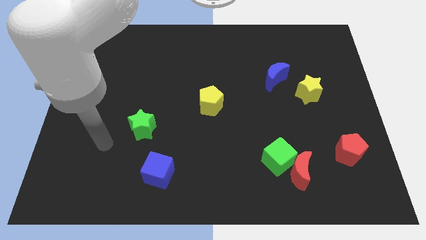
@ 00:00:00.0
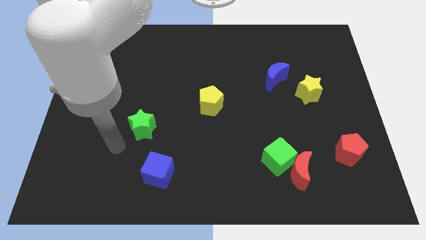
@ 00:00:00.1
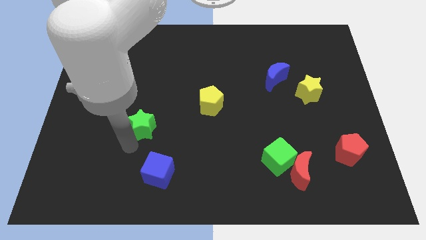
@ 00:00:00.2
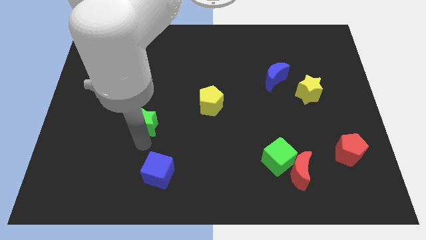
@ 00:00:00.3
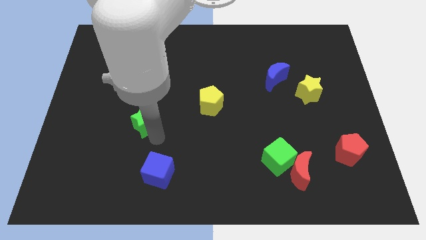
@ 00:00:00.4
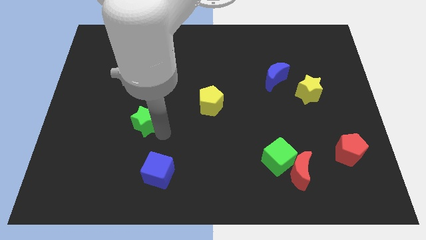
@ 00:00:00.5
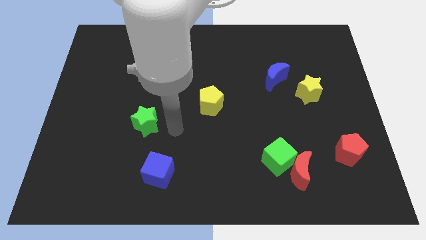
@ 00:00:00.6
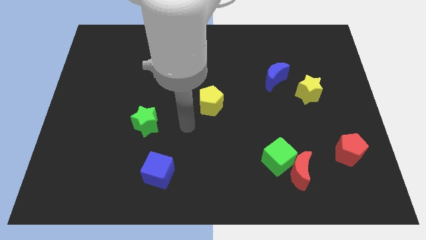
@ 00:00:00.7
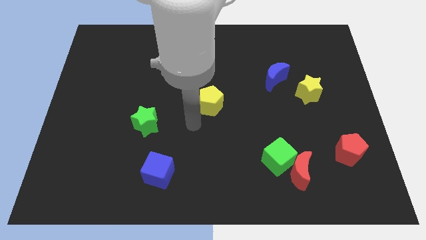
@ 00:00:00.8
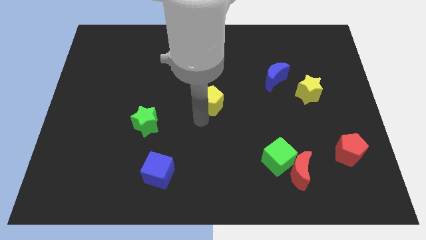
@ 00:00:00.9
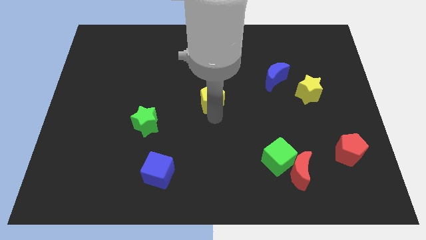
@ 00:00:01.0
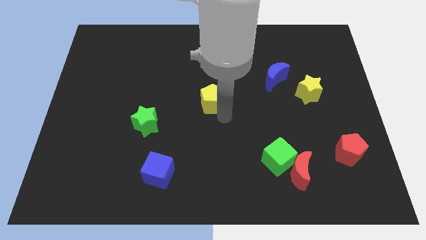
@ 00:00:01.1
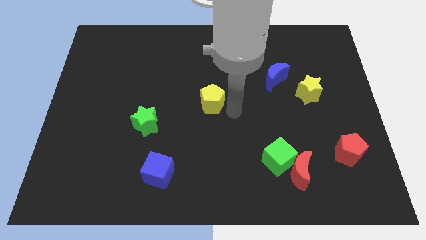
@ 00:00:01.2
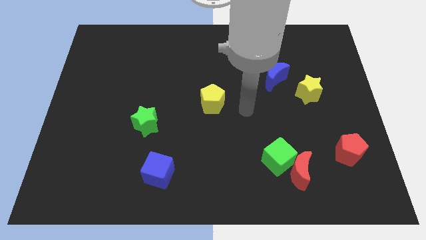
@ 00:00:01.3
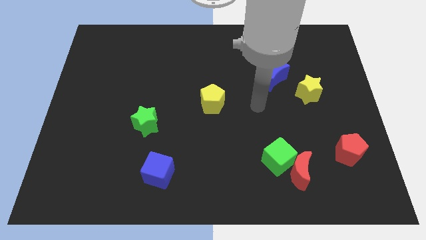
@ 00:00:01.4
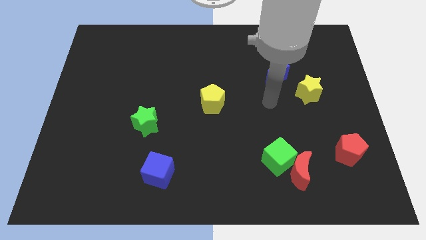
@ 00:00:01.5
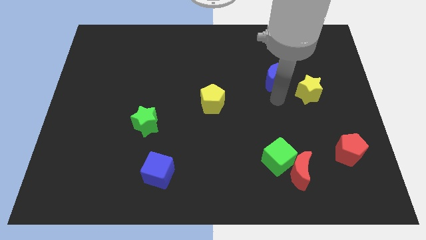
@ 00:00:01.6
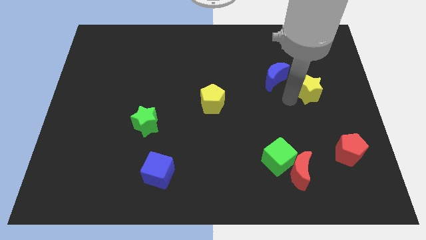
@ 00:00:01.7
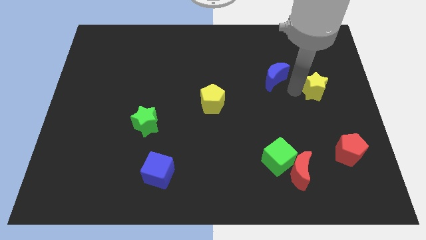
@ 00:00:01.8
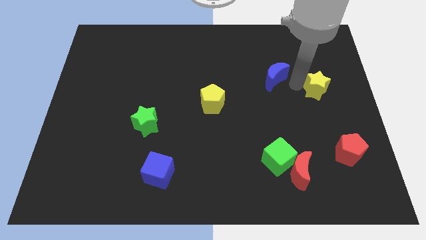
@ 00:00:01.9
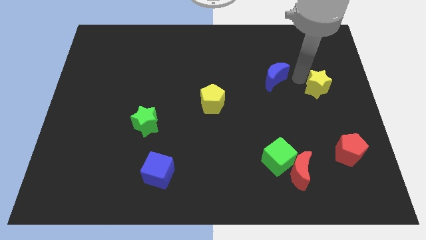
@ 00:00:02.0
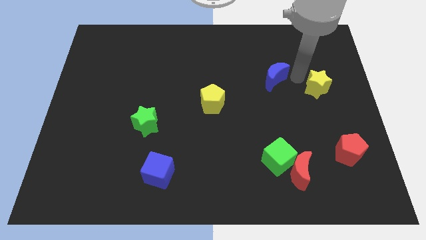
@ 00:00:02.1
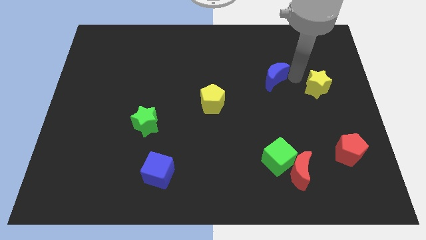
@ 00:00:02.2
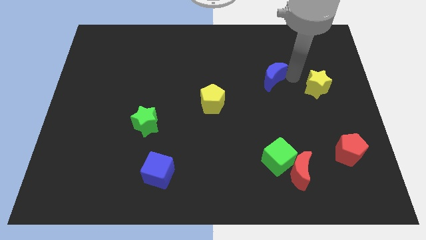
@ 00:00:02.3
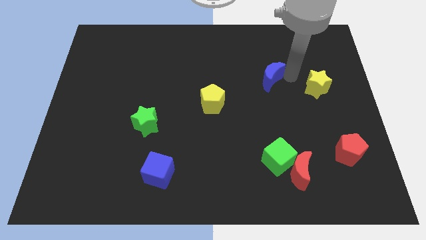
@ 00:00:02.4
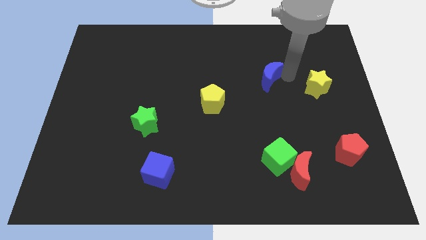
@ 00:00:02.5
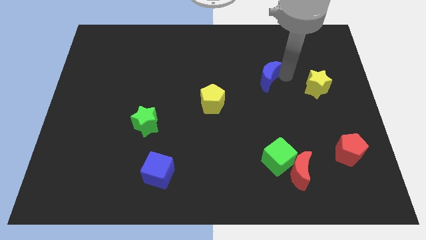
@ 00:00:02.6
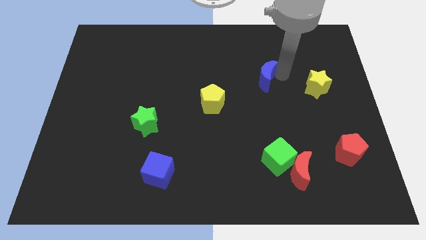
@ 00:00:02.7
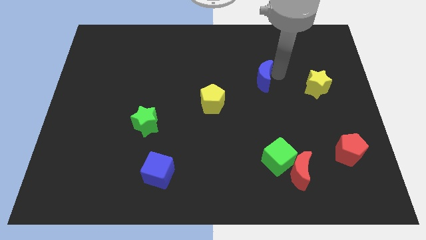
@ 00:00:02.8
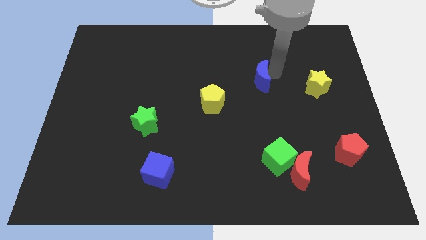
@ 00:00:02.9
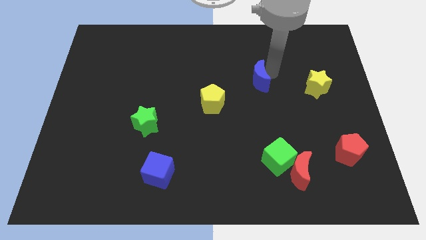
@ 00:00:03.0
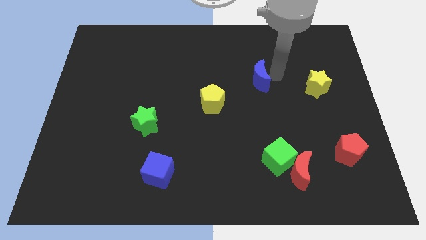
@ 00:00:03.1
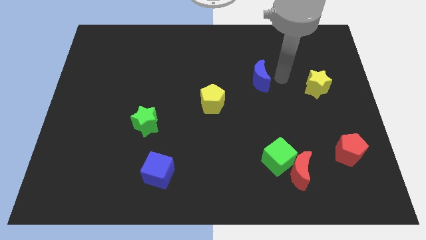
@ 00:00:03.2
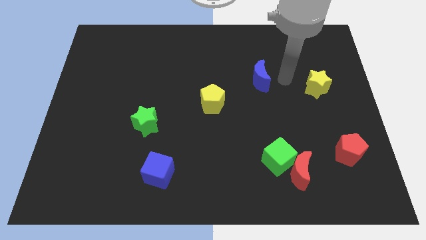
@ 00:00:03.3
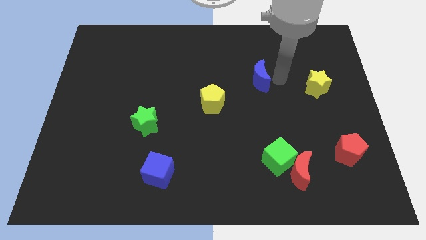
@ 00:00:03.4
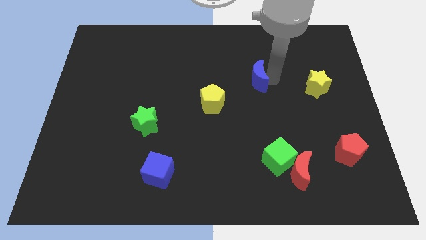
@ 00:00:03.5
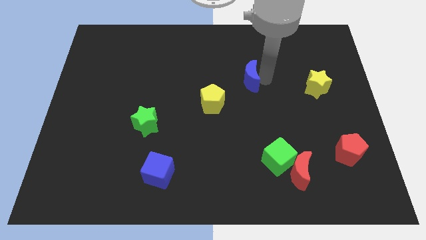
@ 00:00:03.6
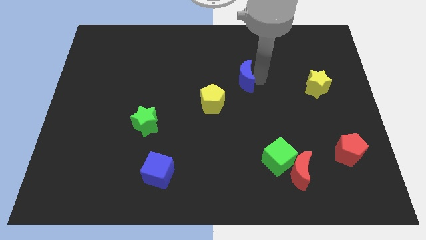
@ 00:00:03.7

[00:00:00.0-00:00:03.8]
push the blue moon slightly to the left

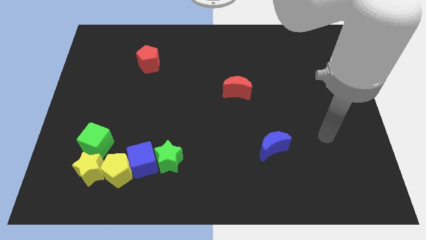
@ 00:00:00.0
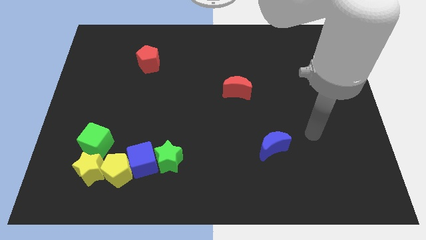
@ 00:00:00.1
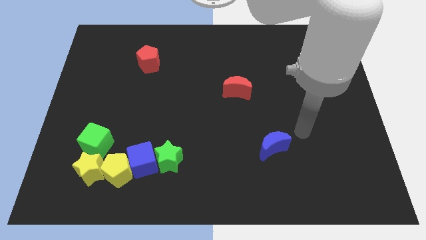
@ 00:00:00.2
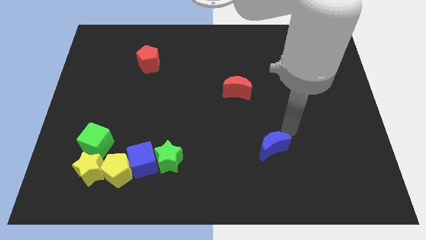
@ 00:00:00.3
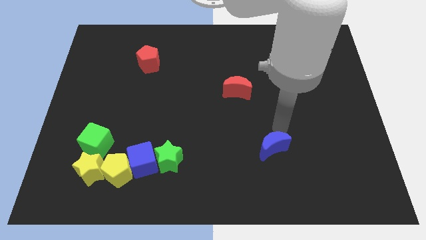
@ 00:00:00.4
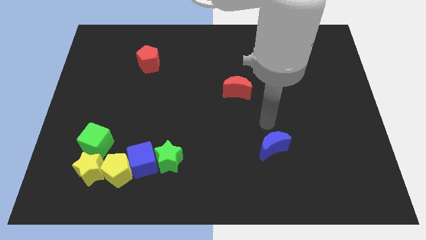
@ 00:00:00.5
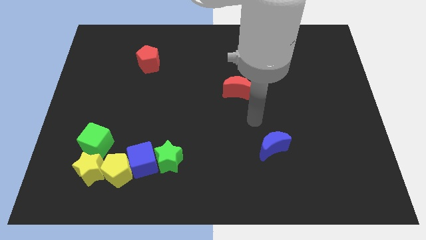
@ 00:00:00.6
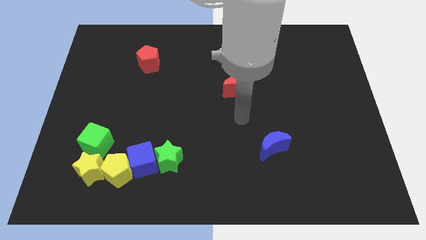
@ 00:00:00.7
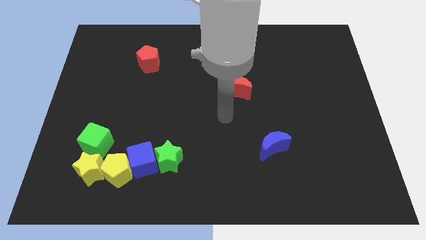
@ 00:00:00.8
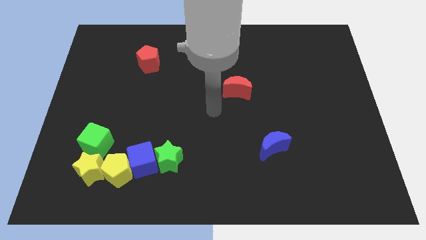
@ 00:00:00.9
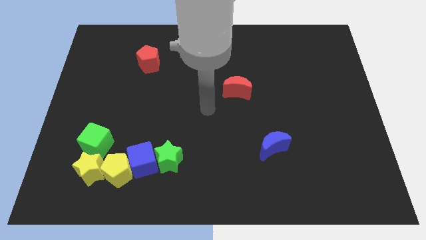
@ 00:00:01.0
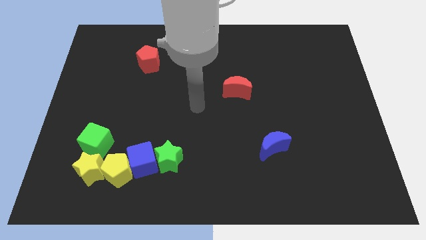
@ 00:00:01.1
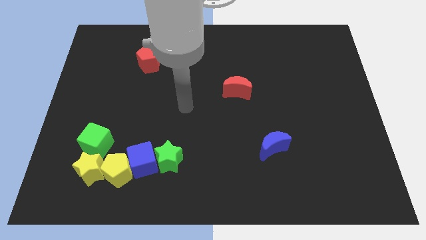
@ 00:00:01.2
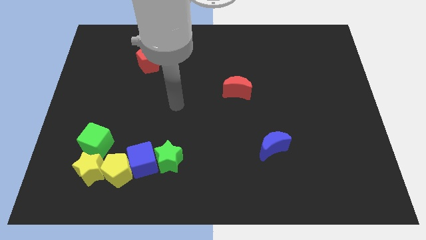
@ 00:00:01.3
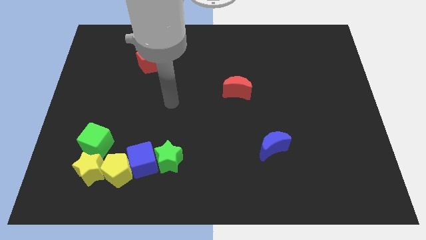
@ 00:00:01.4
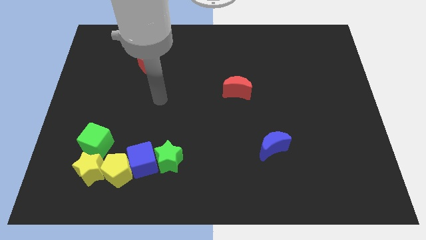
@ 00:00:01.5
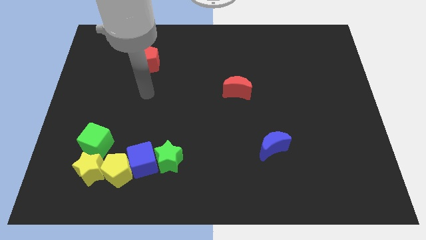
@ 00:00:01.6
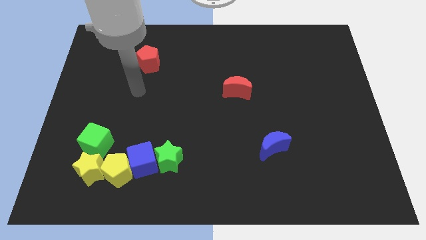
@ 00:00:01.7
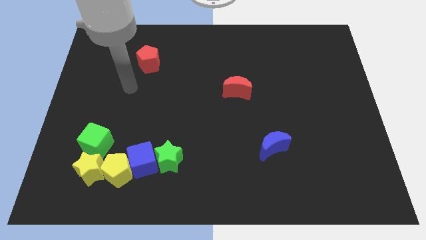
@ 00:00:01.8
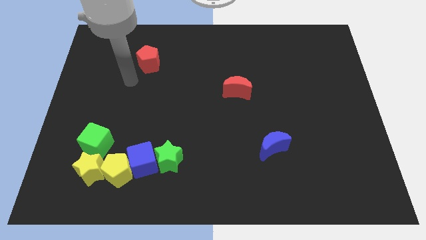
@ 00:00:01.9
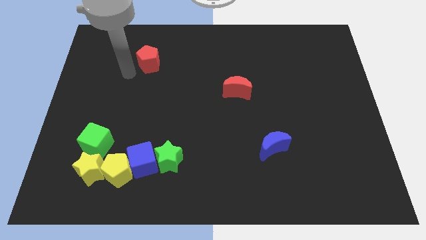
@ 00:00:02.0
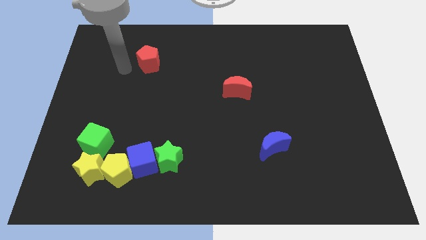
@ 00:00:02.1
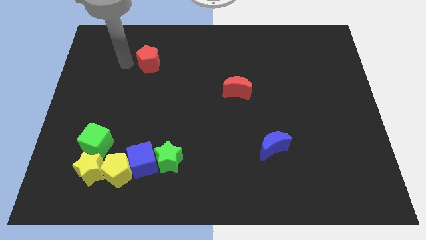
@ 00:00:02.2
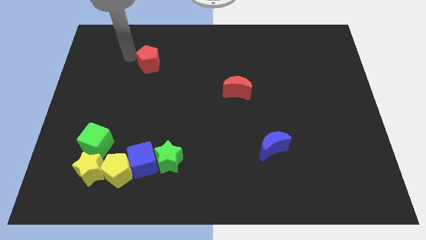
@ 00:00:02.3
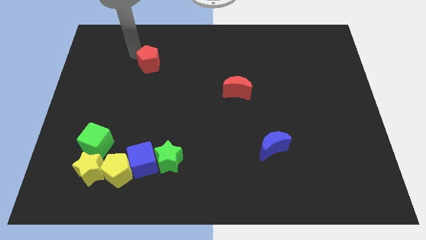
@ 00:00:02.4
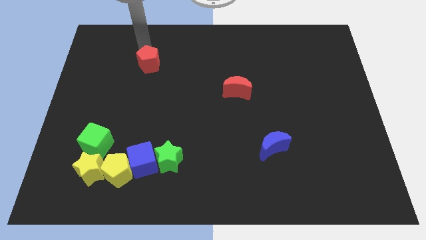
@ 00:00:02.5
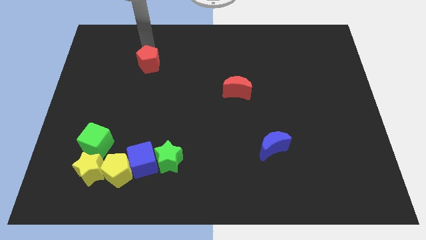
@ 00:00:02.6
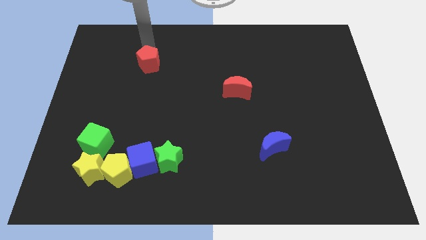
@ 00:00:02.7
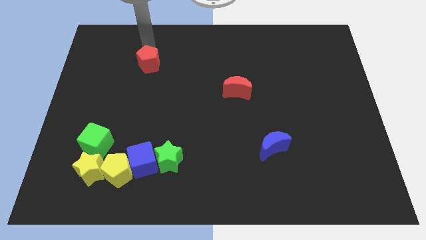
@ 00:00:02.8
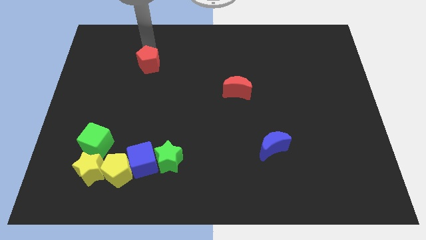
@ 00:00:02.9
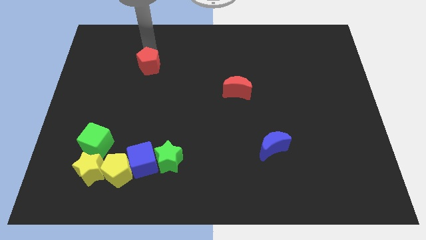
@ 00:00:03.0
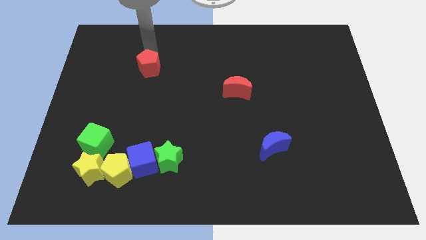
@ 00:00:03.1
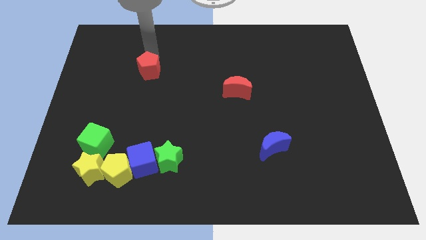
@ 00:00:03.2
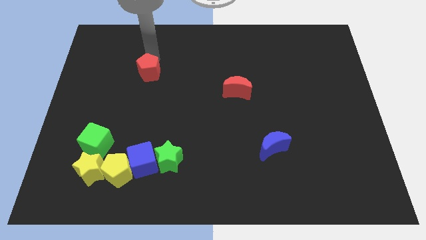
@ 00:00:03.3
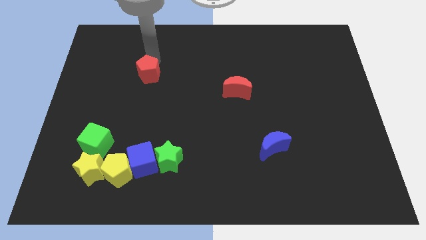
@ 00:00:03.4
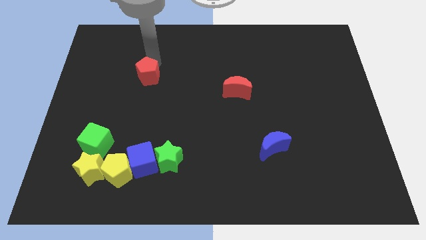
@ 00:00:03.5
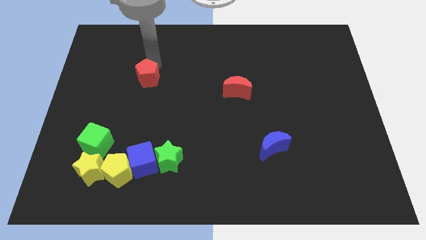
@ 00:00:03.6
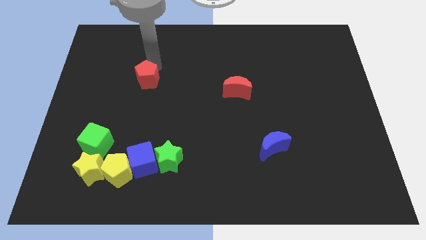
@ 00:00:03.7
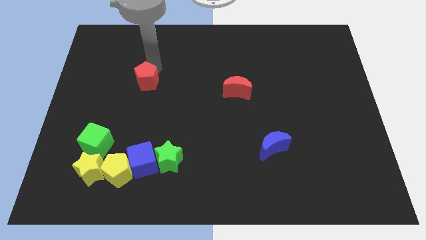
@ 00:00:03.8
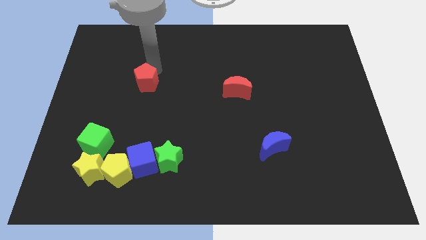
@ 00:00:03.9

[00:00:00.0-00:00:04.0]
move the red pentagon down a bit
